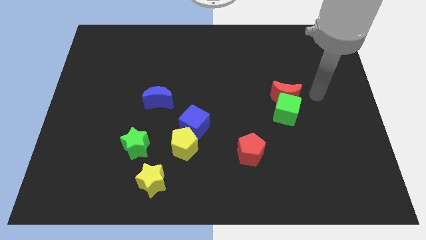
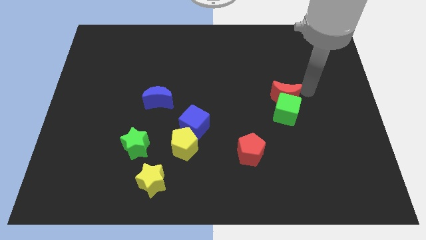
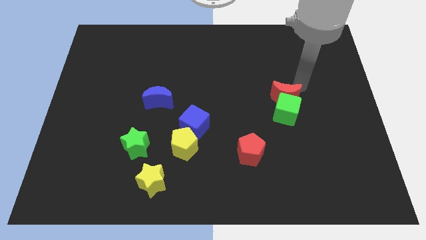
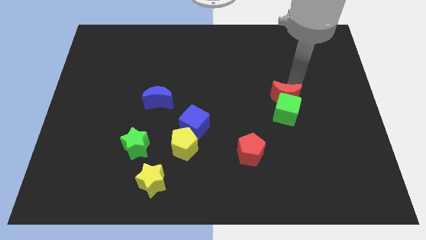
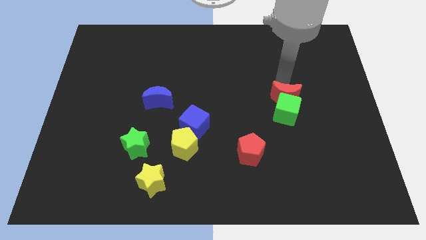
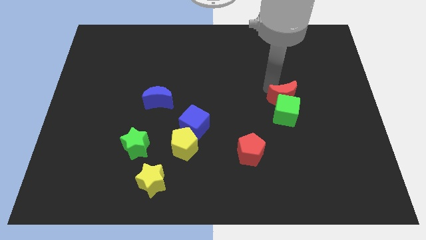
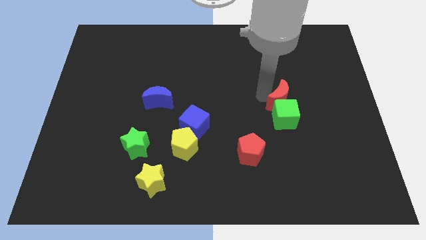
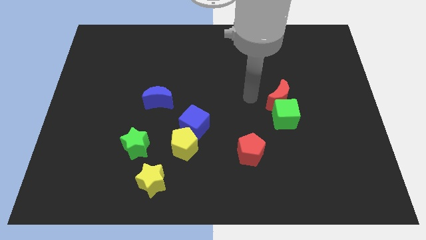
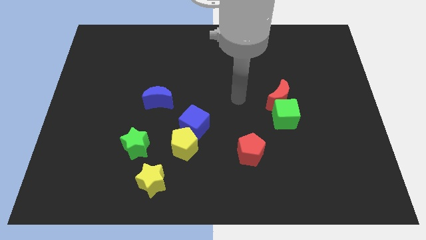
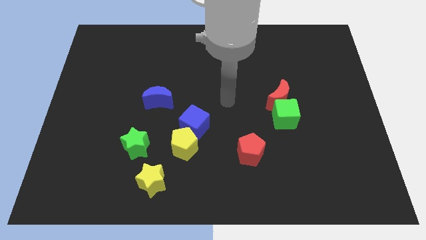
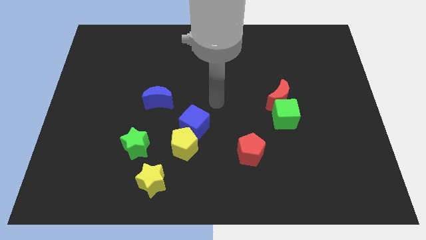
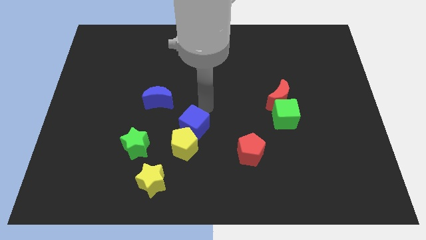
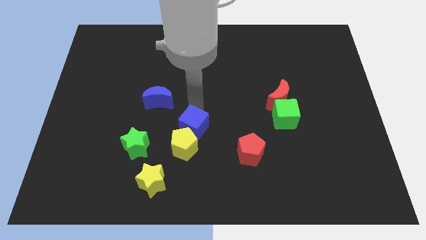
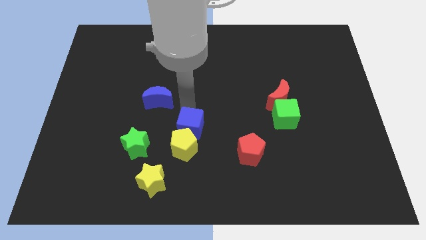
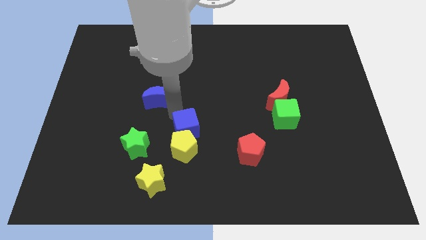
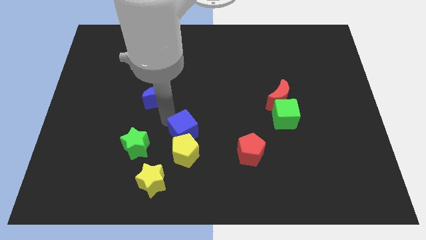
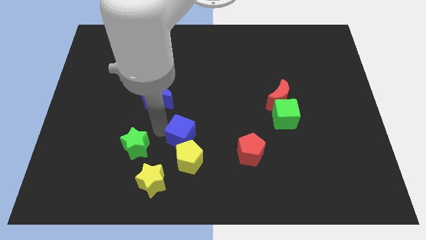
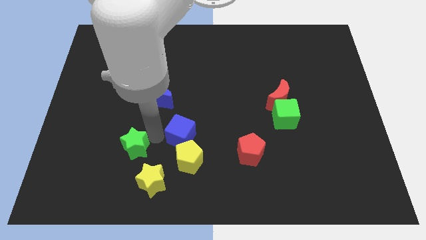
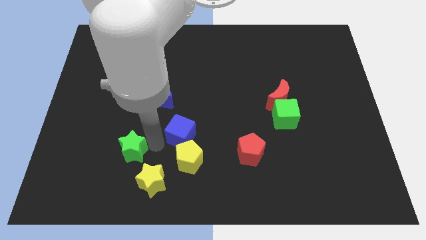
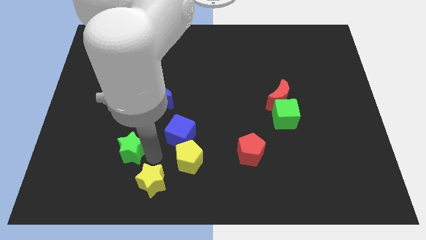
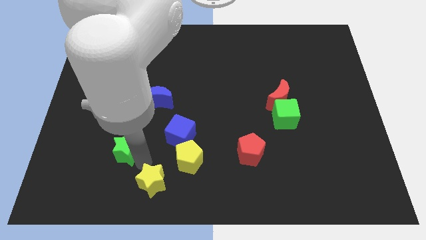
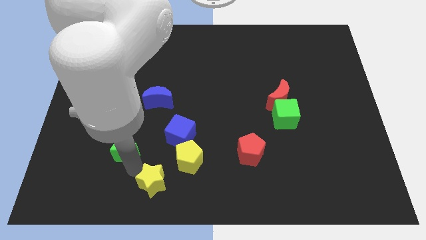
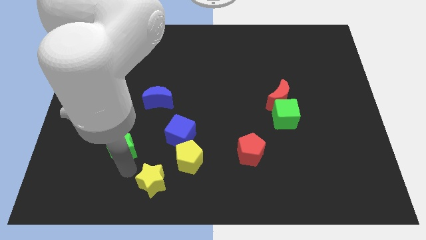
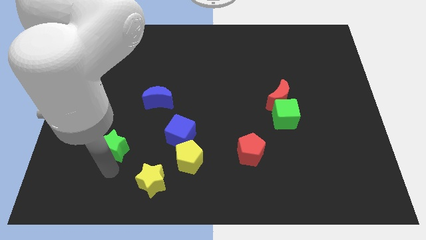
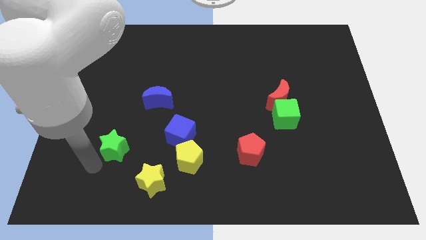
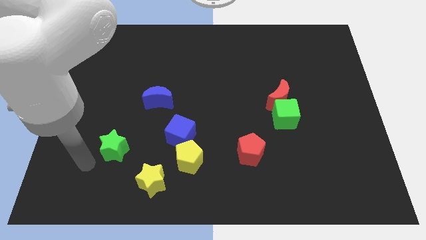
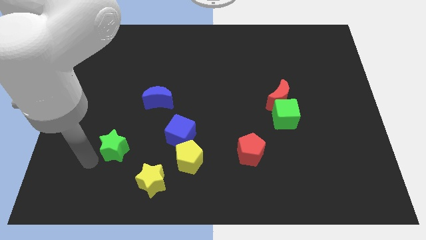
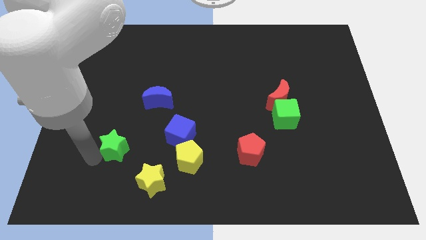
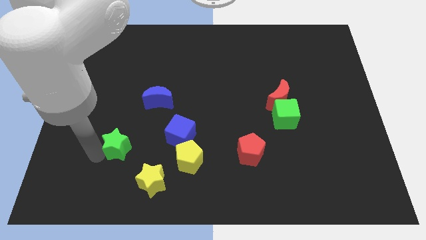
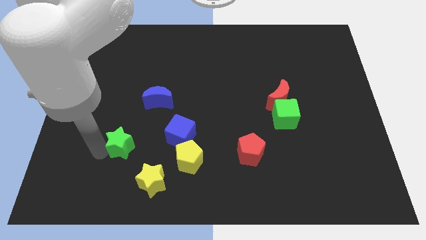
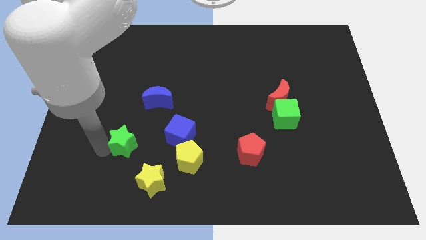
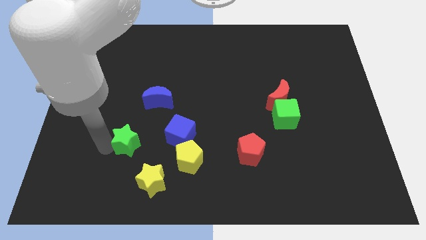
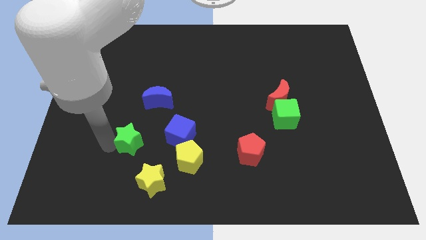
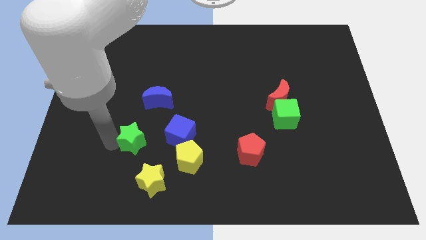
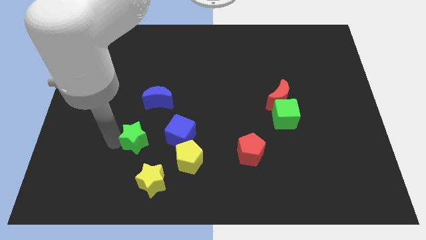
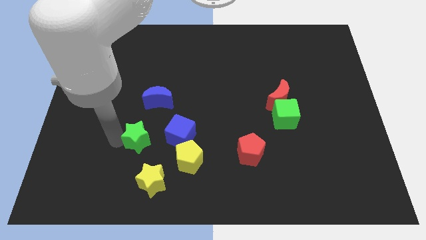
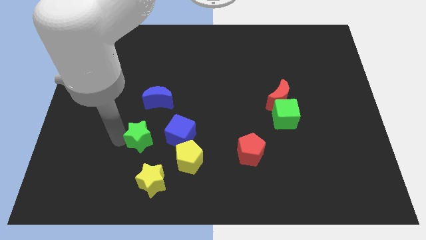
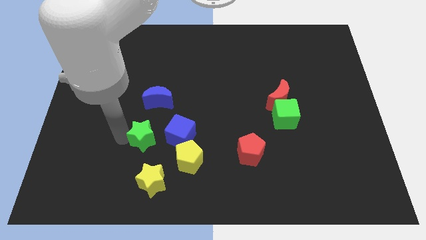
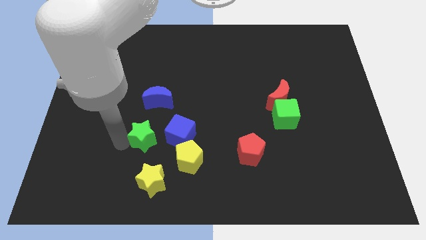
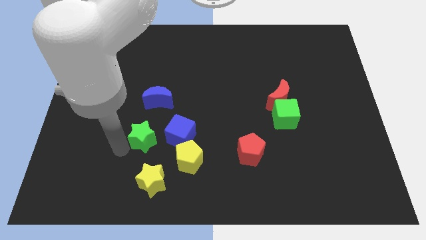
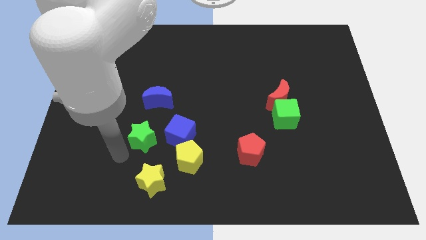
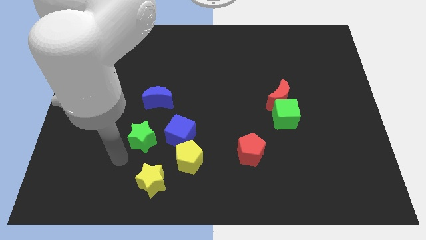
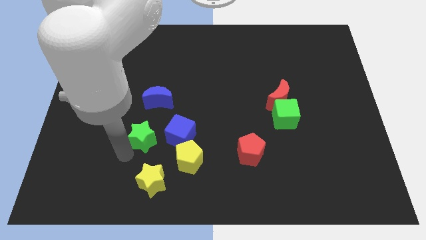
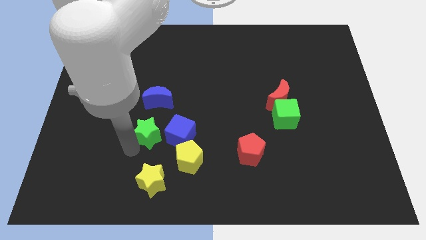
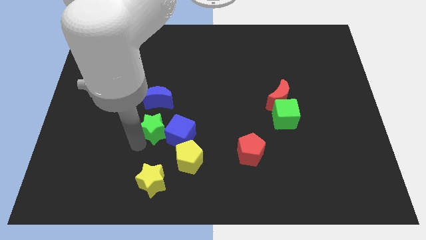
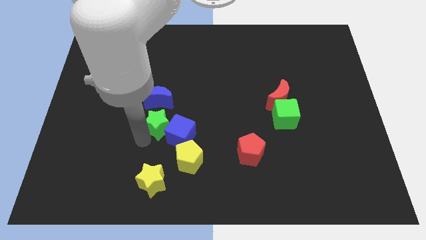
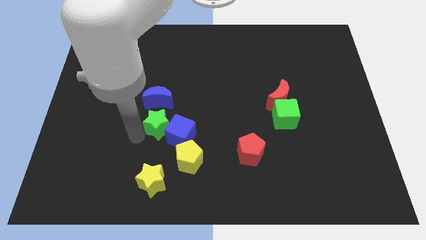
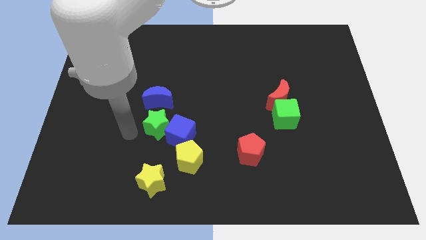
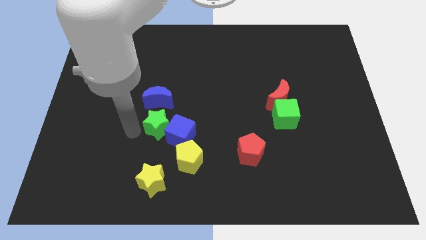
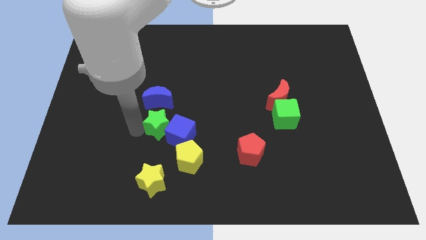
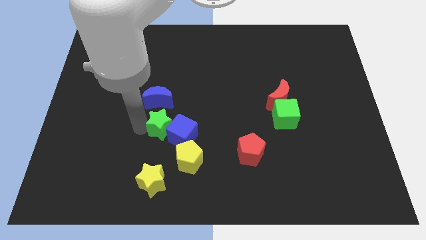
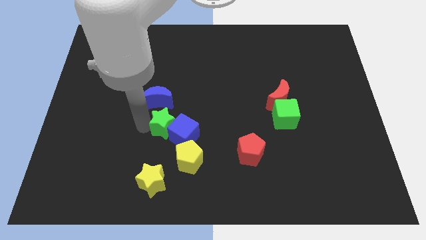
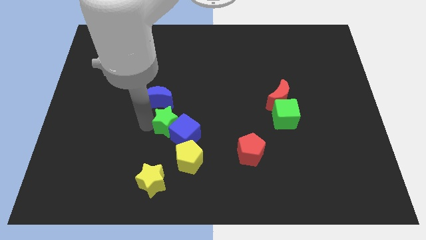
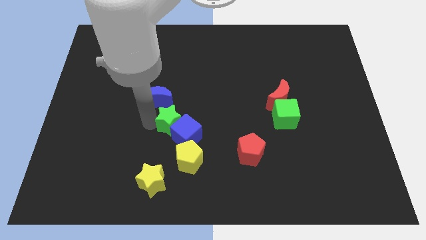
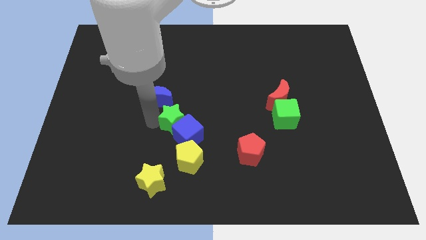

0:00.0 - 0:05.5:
put the green star to the top of the yellow pentagon

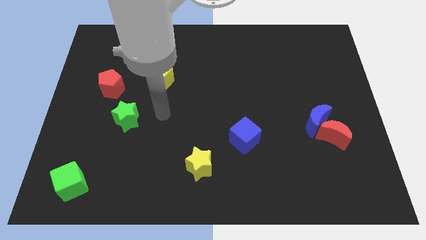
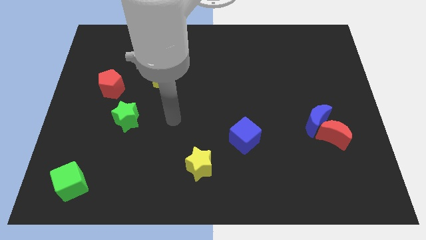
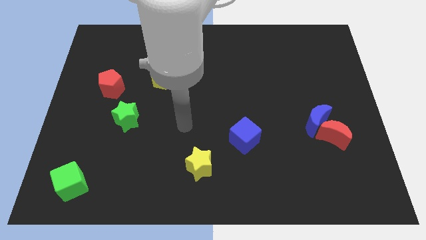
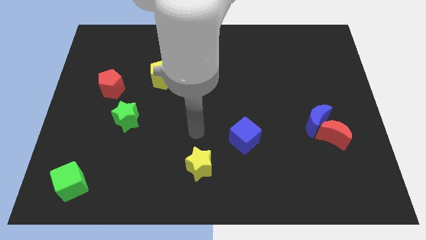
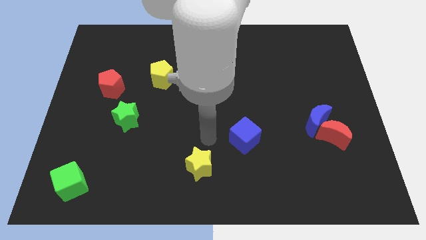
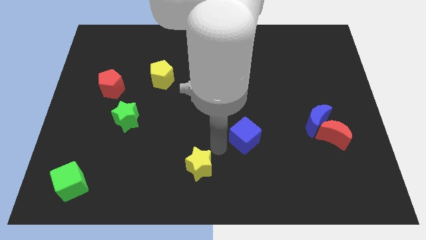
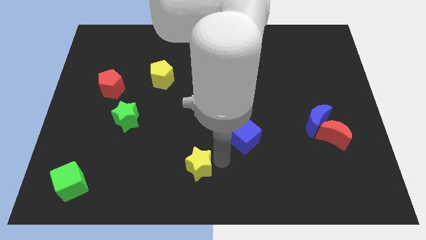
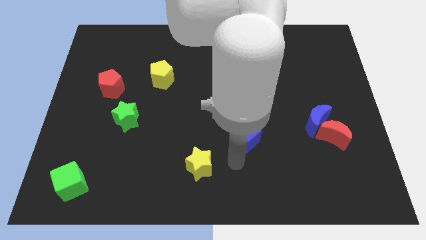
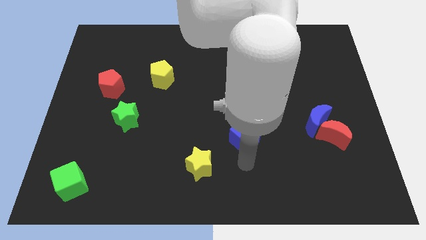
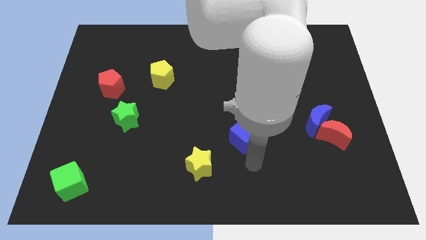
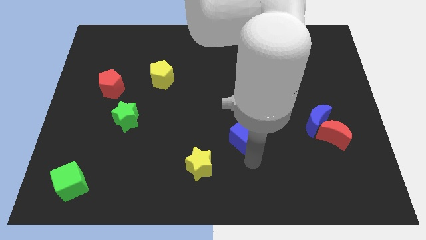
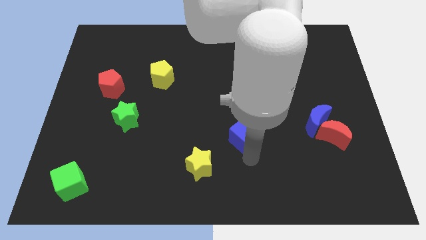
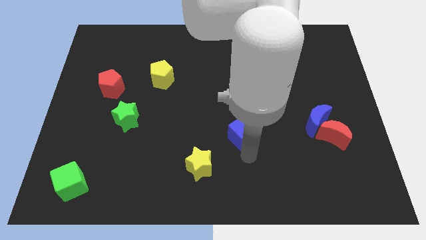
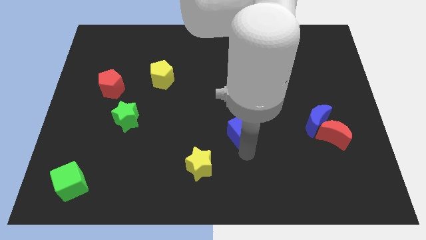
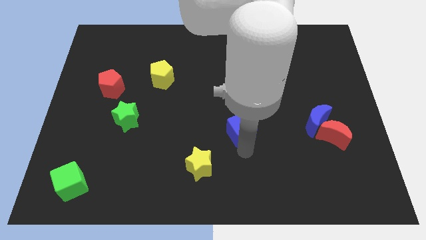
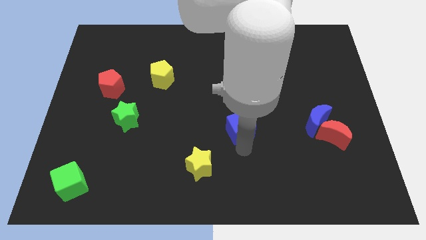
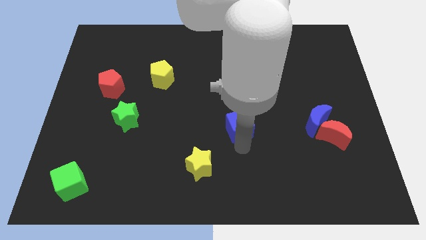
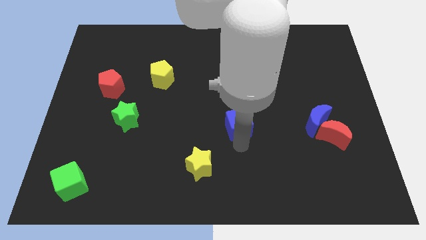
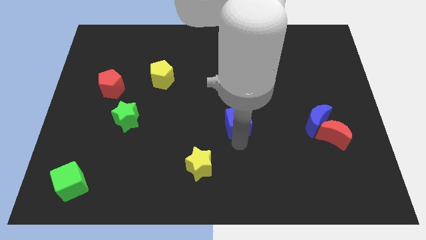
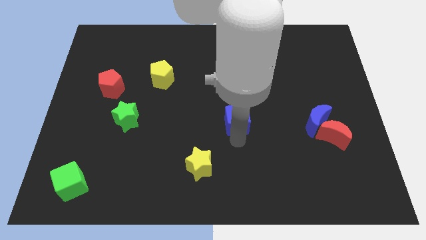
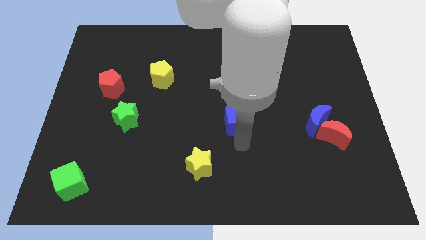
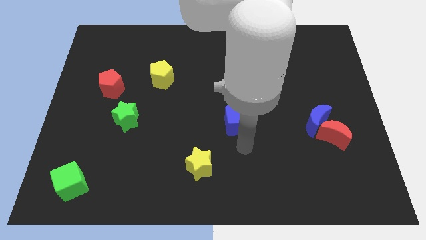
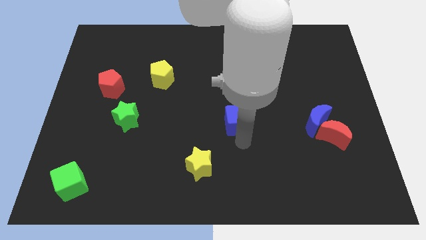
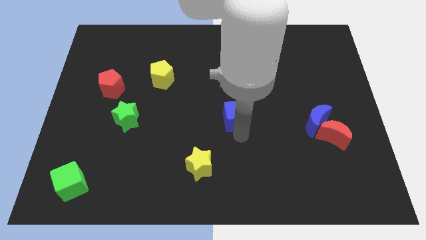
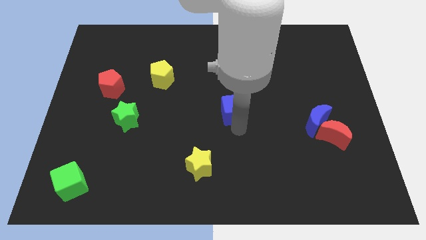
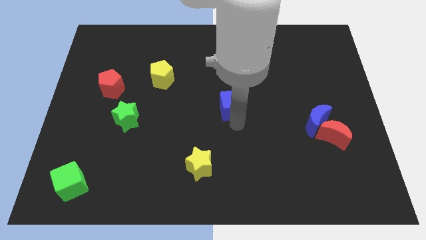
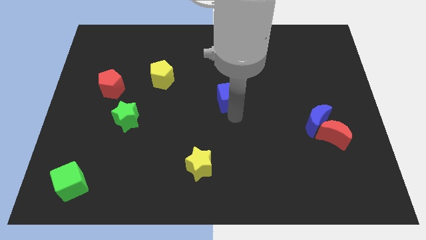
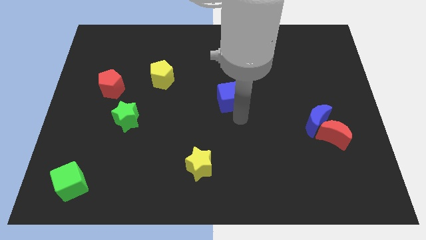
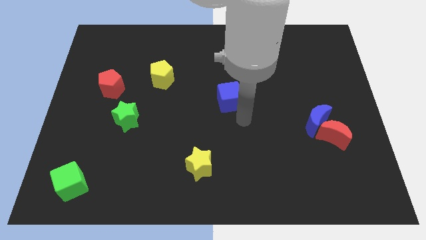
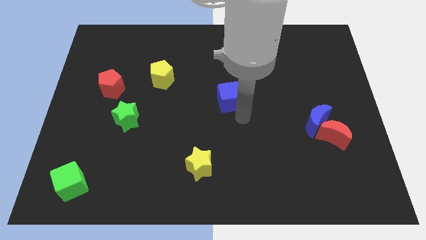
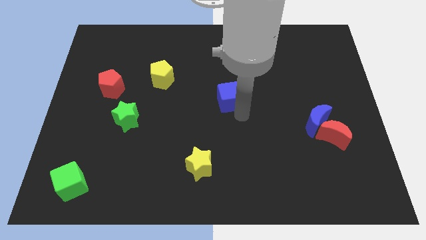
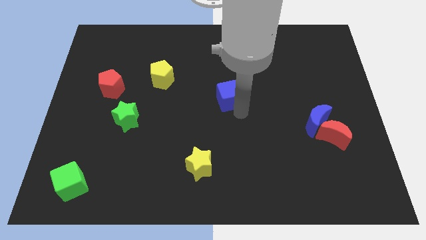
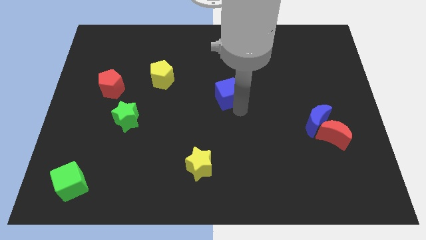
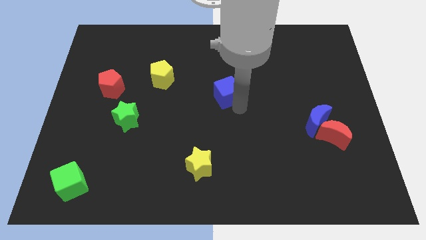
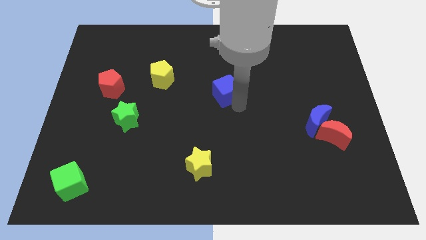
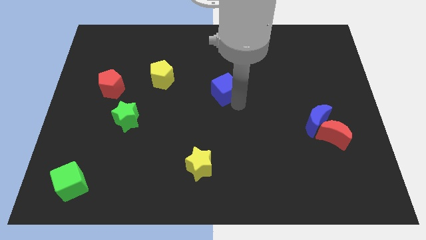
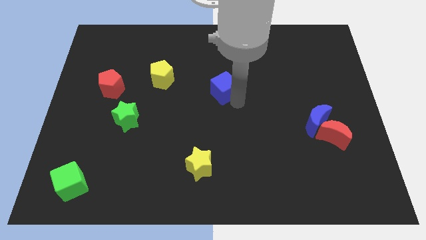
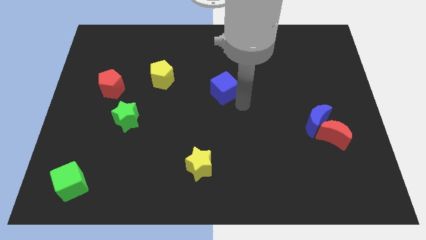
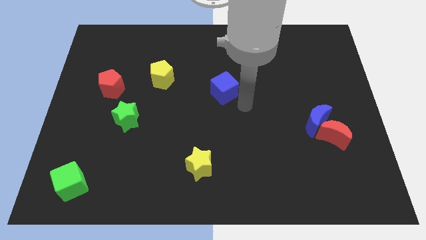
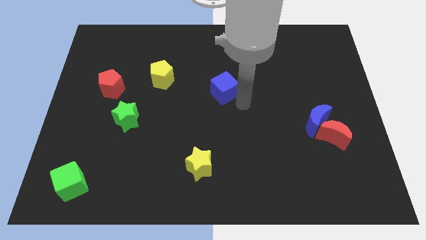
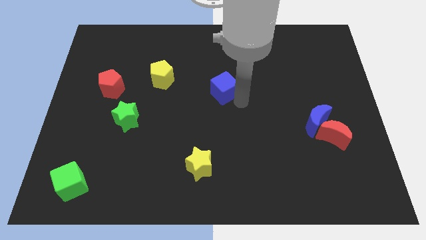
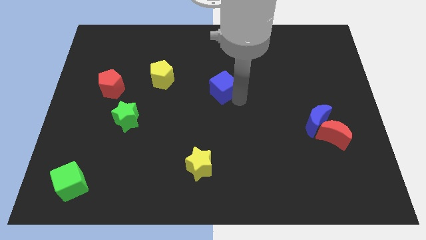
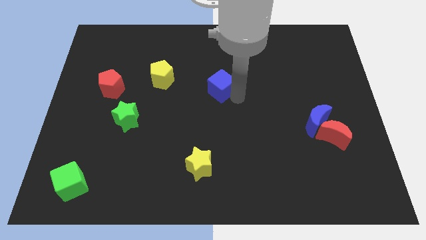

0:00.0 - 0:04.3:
move the blue cube to the right side of the yellow pentagon
